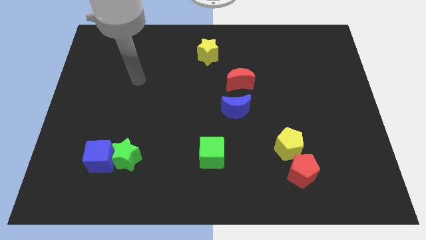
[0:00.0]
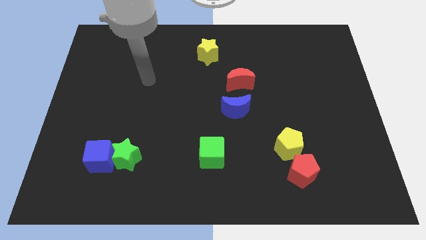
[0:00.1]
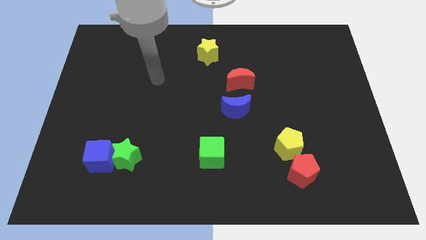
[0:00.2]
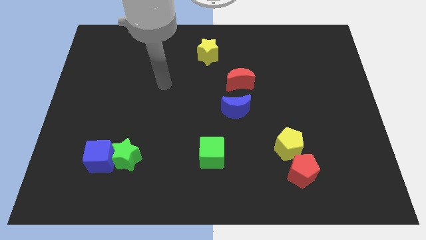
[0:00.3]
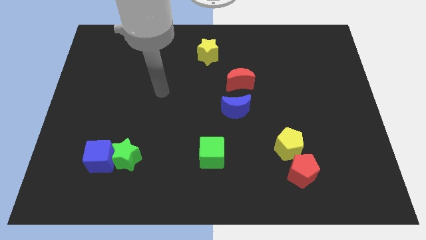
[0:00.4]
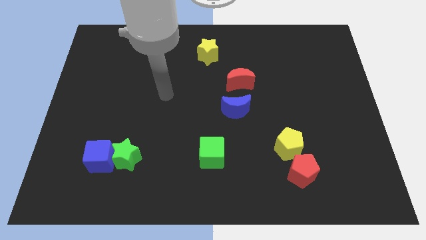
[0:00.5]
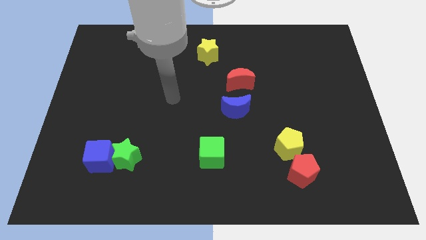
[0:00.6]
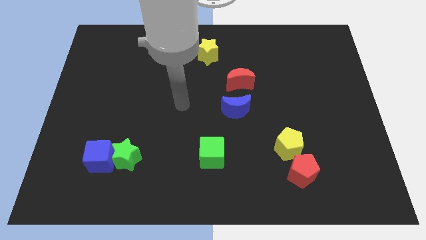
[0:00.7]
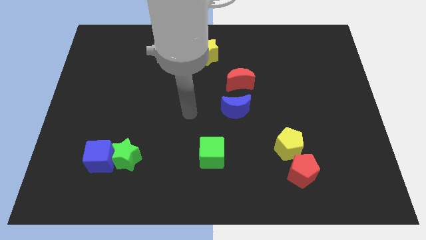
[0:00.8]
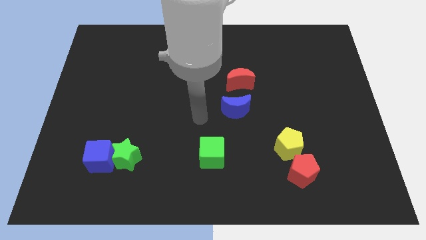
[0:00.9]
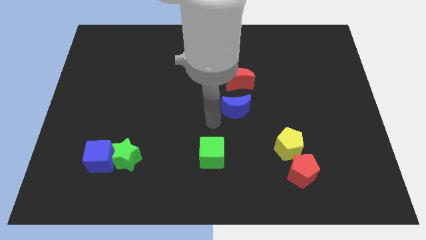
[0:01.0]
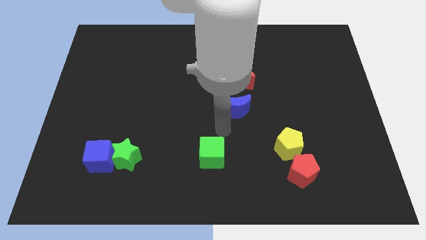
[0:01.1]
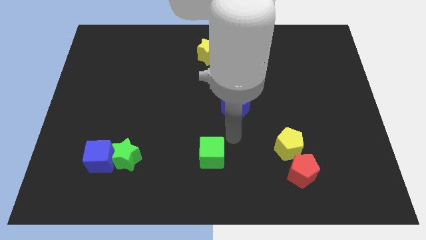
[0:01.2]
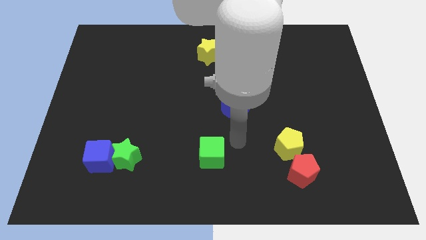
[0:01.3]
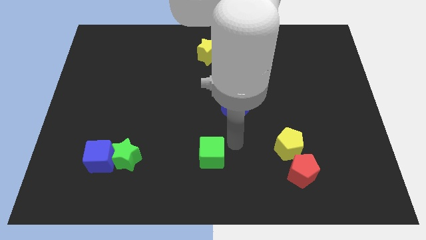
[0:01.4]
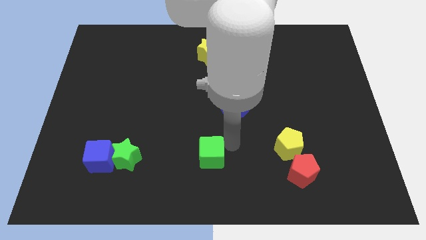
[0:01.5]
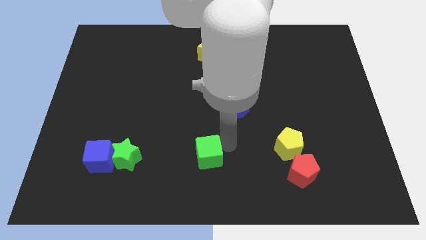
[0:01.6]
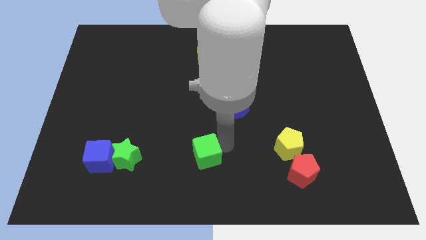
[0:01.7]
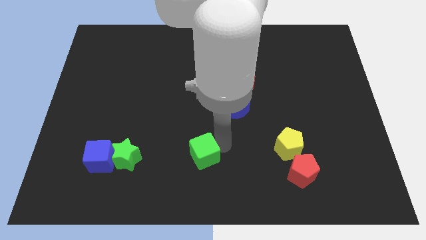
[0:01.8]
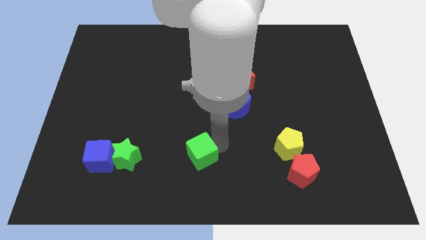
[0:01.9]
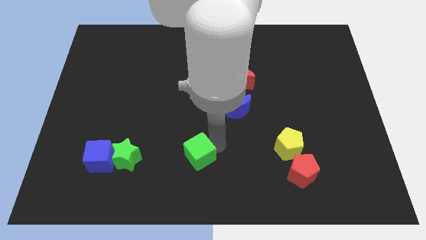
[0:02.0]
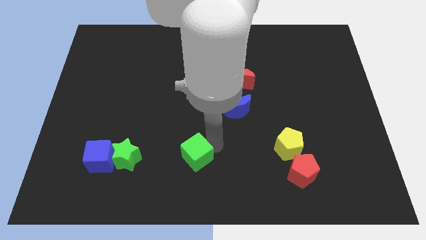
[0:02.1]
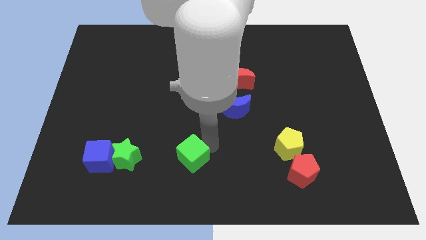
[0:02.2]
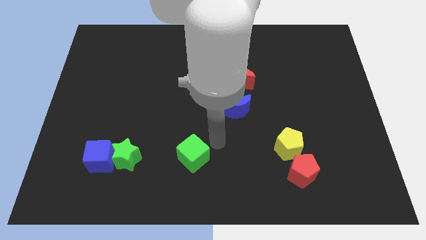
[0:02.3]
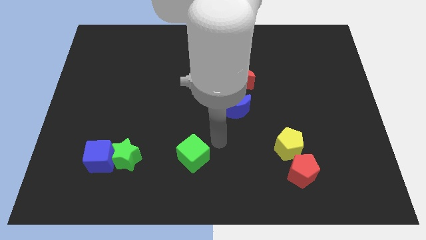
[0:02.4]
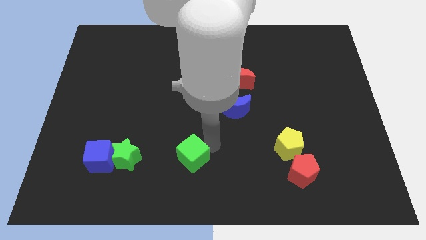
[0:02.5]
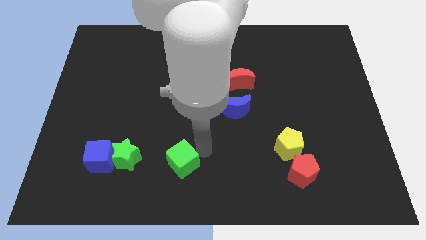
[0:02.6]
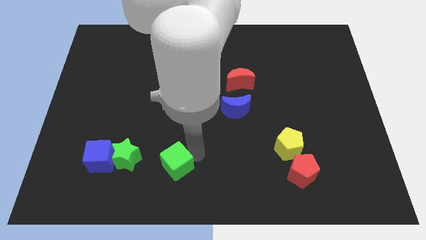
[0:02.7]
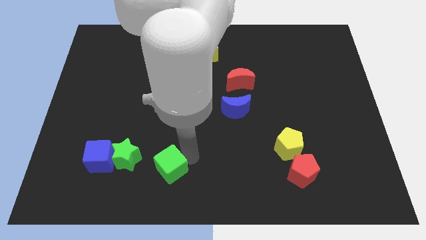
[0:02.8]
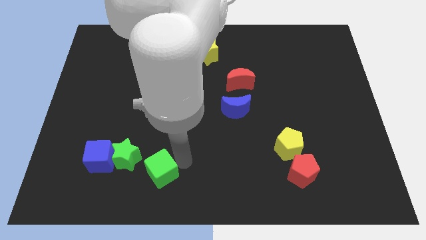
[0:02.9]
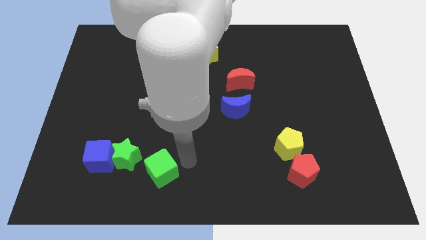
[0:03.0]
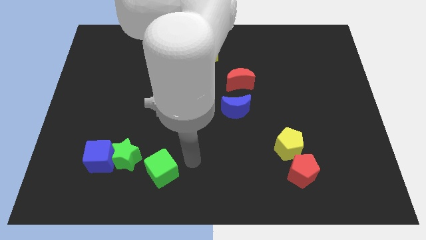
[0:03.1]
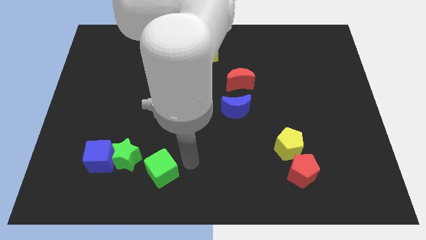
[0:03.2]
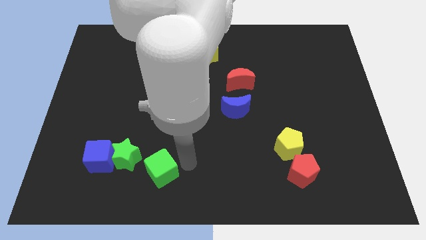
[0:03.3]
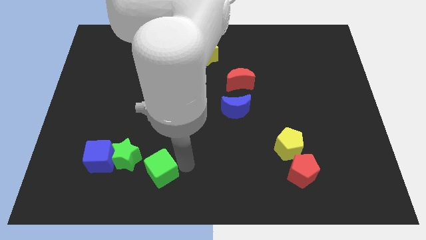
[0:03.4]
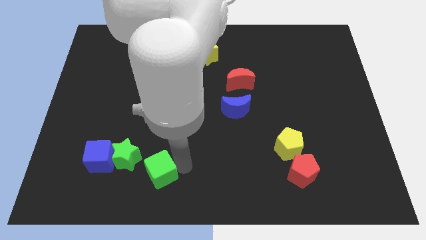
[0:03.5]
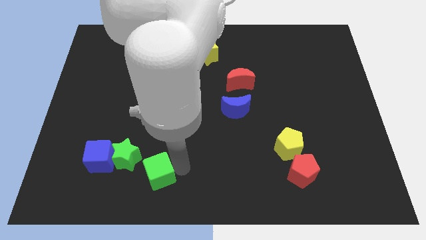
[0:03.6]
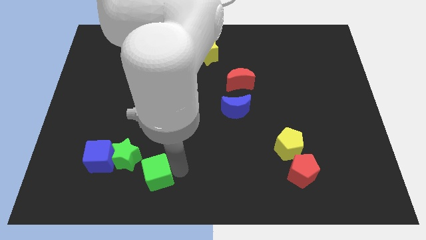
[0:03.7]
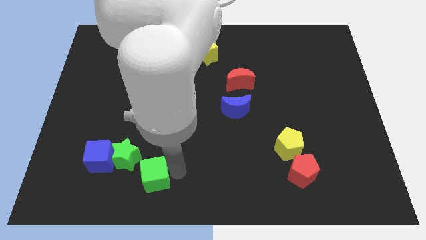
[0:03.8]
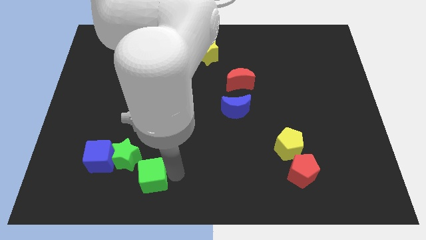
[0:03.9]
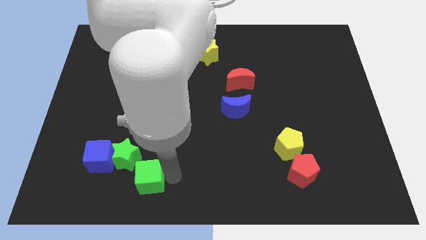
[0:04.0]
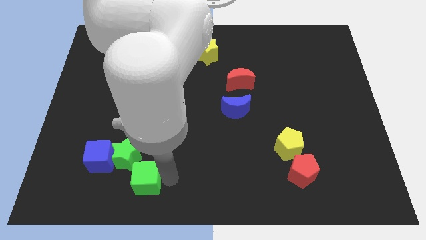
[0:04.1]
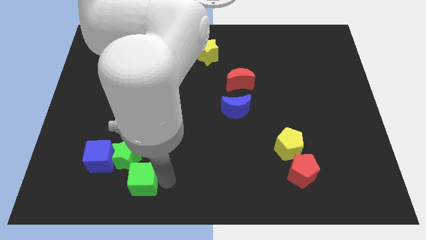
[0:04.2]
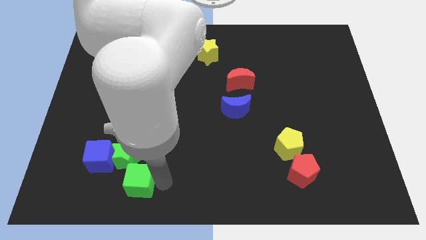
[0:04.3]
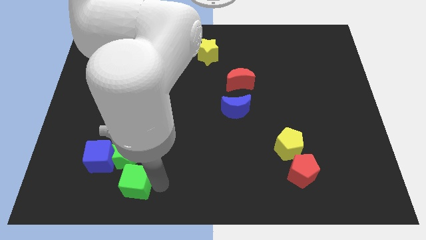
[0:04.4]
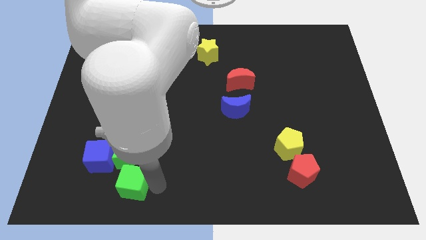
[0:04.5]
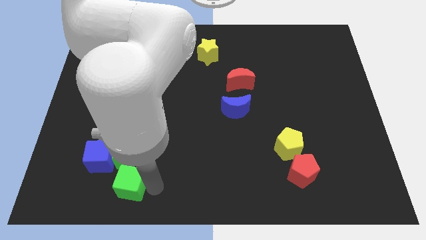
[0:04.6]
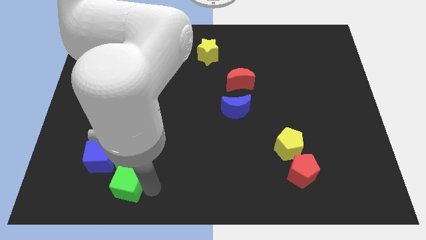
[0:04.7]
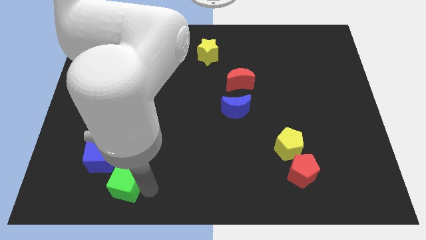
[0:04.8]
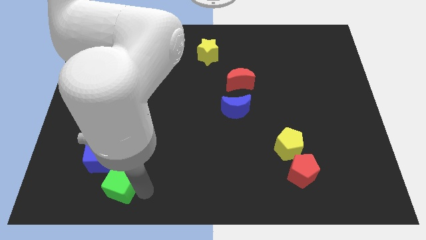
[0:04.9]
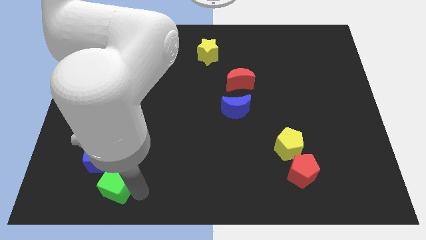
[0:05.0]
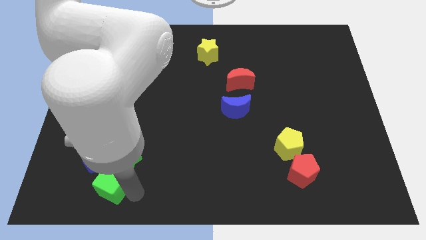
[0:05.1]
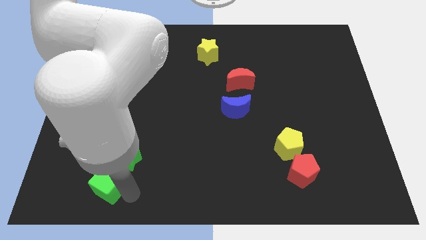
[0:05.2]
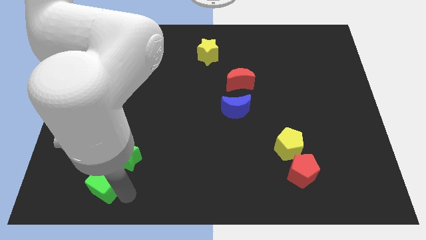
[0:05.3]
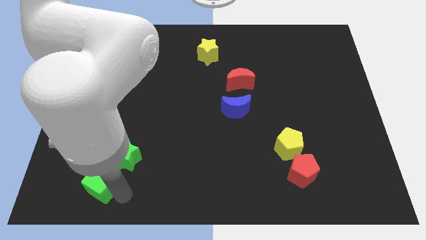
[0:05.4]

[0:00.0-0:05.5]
push the green cube to the blue cube

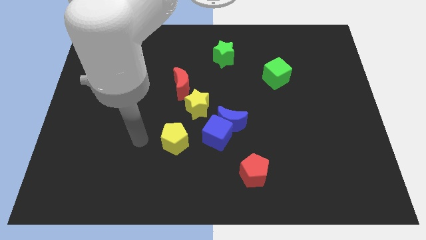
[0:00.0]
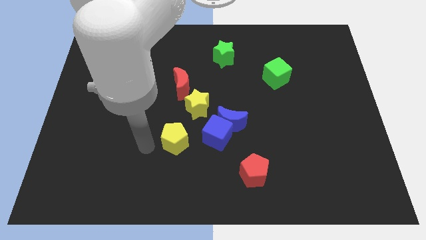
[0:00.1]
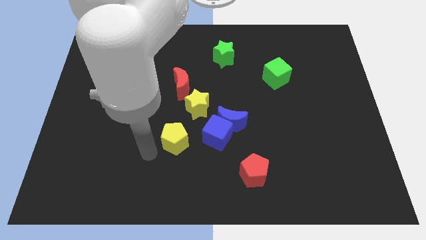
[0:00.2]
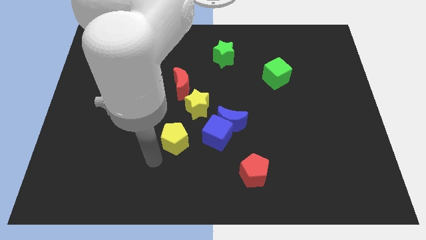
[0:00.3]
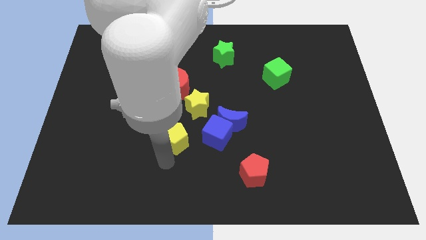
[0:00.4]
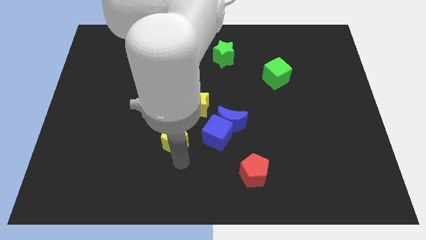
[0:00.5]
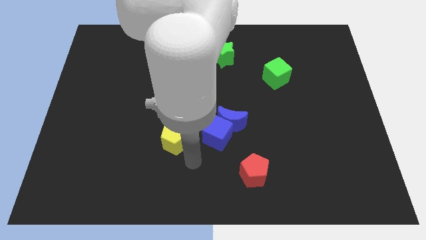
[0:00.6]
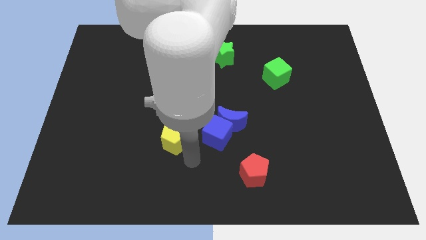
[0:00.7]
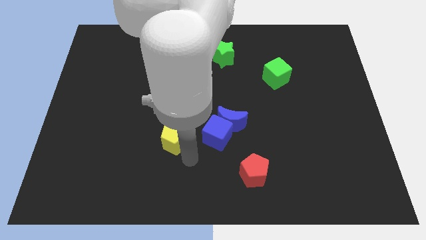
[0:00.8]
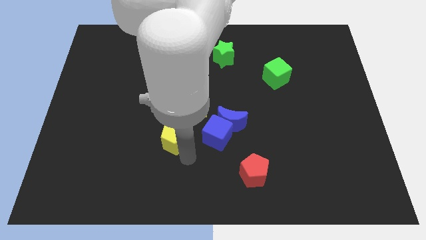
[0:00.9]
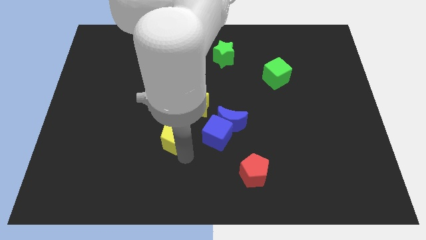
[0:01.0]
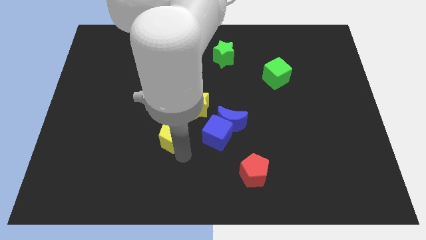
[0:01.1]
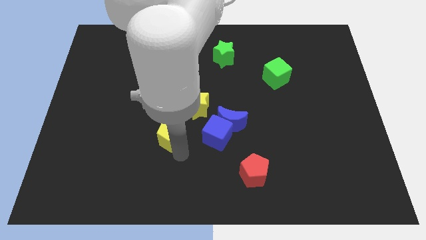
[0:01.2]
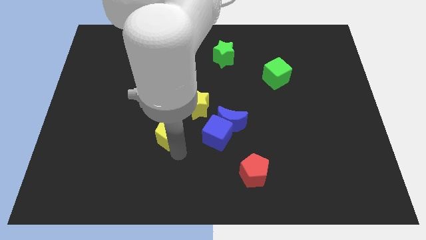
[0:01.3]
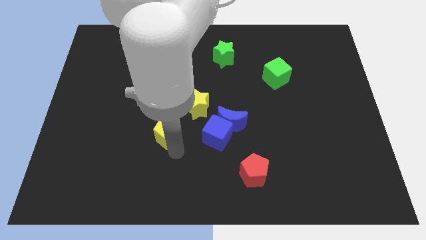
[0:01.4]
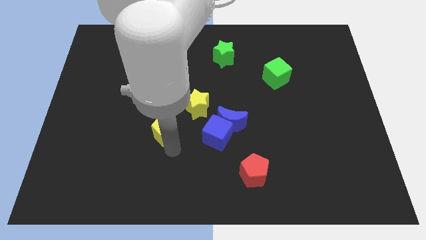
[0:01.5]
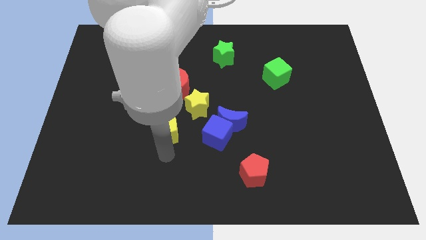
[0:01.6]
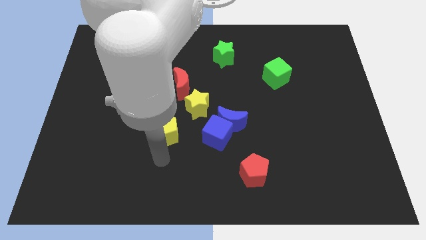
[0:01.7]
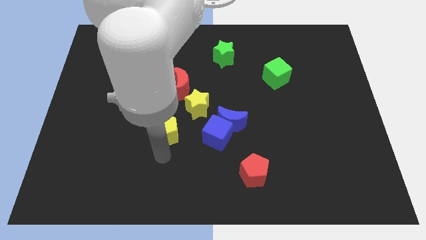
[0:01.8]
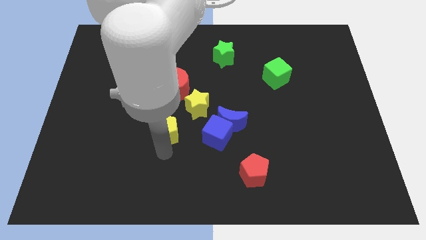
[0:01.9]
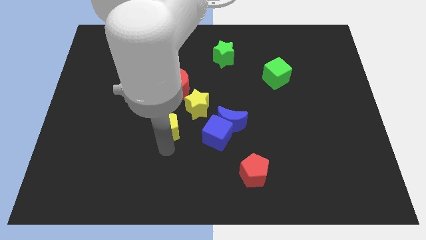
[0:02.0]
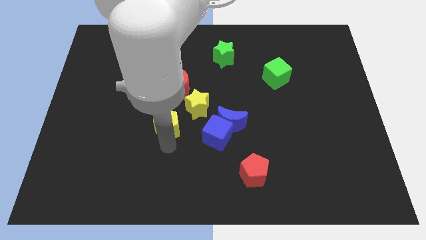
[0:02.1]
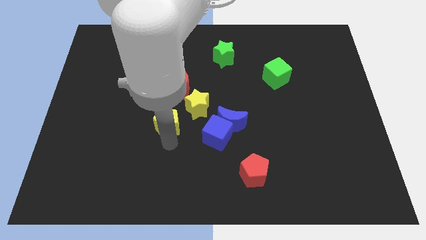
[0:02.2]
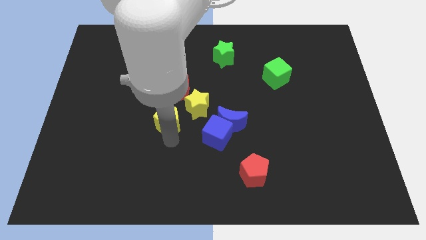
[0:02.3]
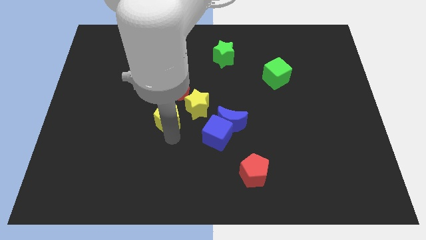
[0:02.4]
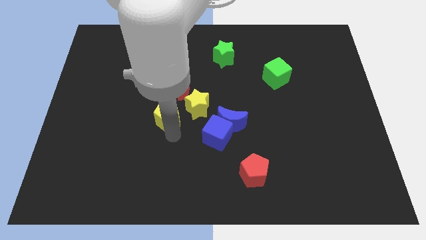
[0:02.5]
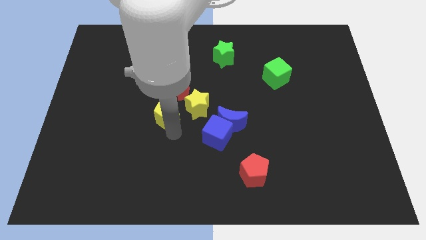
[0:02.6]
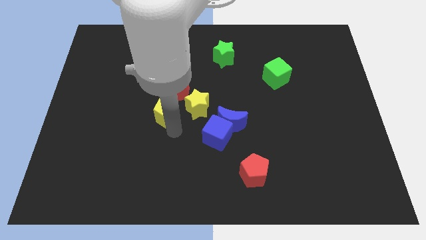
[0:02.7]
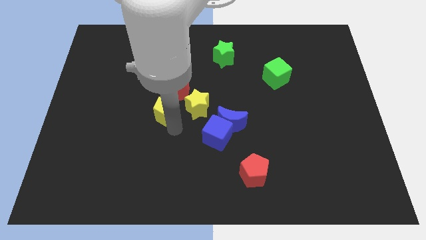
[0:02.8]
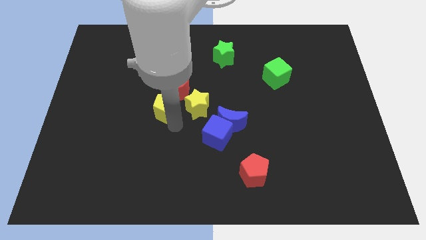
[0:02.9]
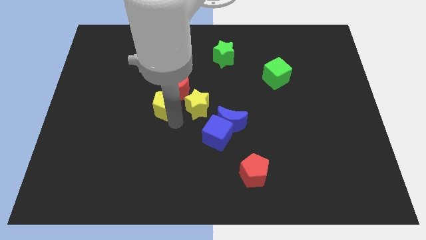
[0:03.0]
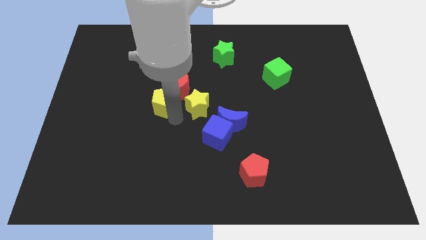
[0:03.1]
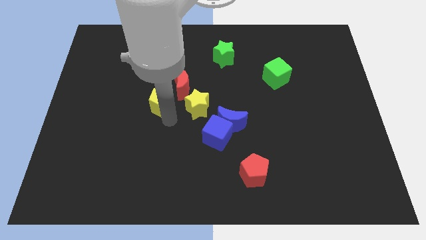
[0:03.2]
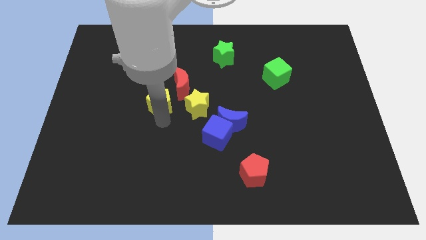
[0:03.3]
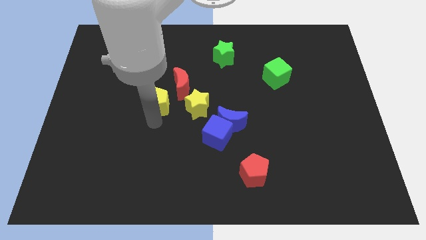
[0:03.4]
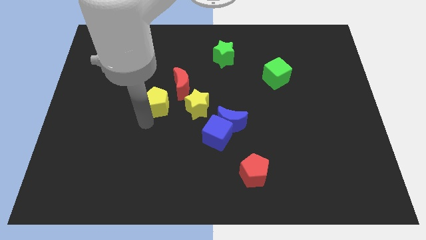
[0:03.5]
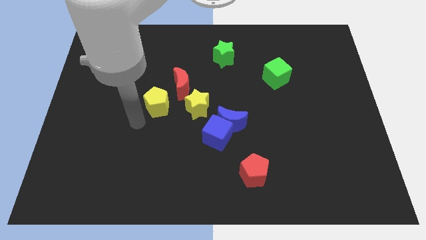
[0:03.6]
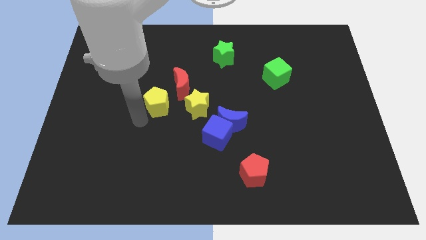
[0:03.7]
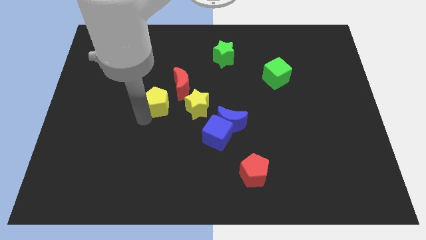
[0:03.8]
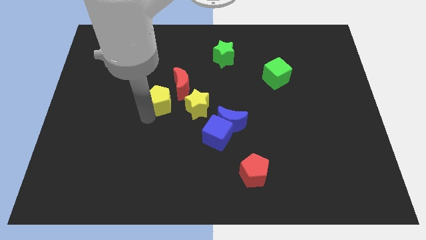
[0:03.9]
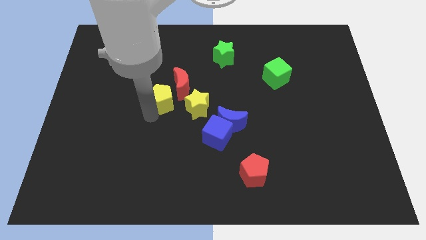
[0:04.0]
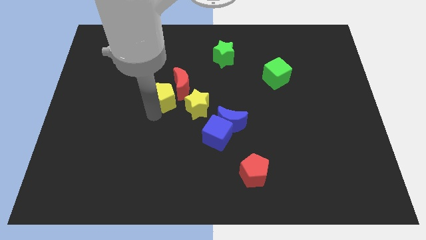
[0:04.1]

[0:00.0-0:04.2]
move the yellow pentagon towards the red moon
